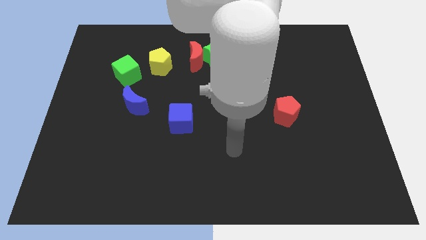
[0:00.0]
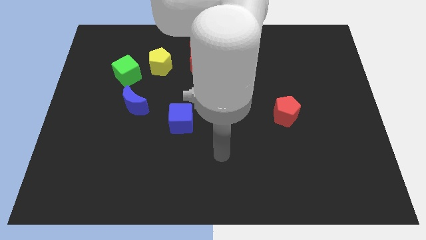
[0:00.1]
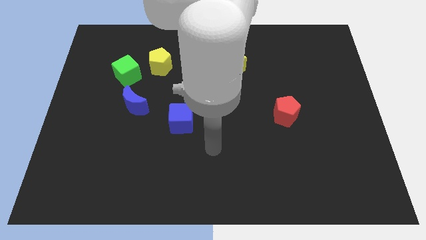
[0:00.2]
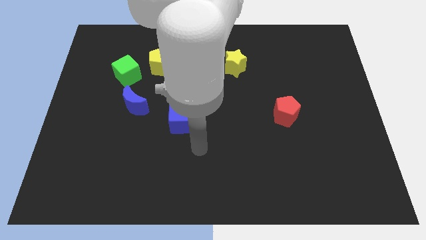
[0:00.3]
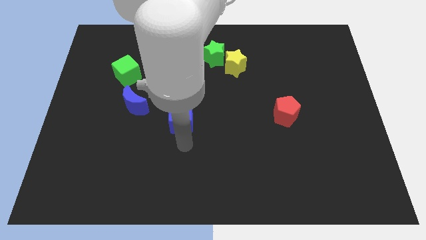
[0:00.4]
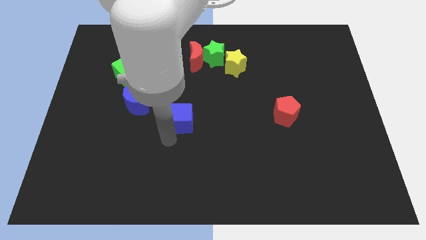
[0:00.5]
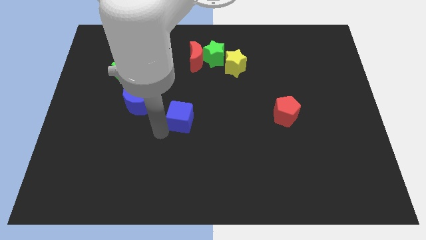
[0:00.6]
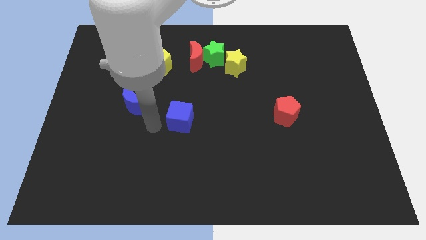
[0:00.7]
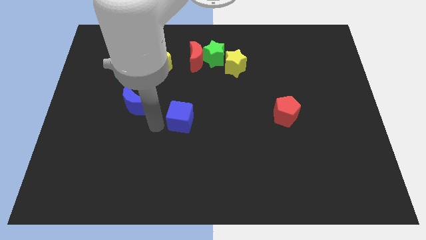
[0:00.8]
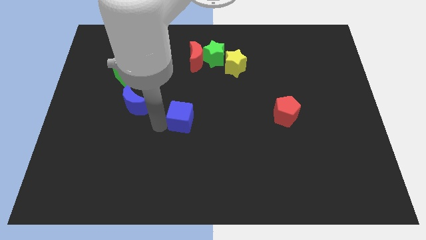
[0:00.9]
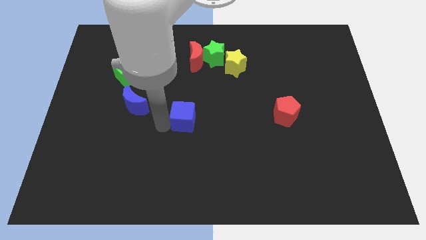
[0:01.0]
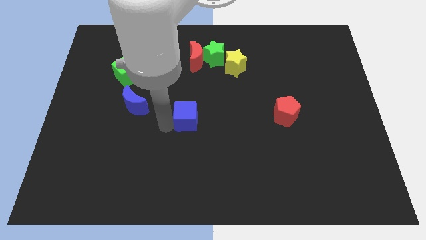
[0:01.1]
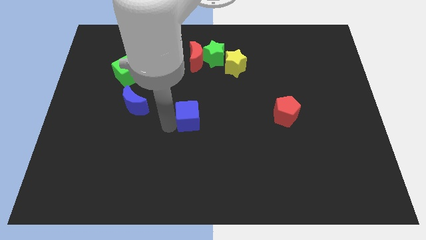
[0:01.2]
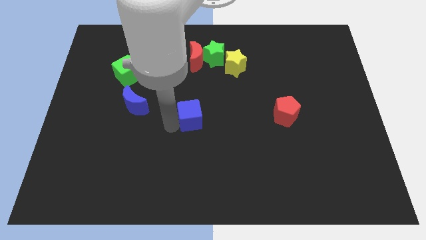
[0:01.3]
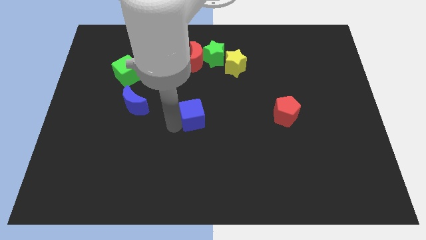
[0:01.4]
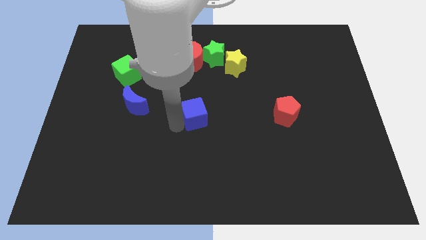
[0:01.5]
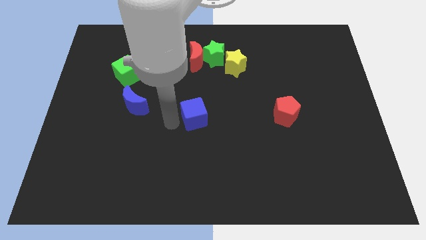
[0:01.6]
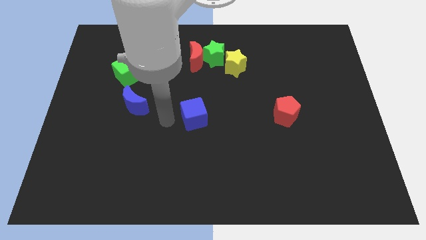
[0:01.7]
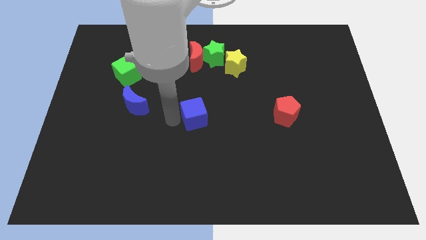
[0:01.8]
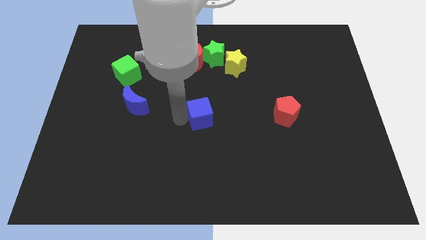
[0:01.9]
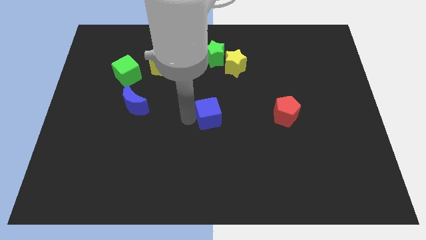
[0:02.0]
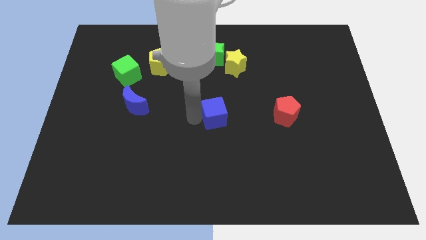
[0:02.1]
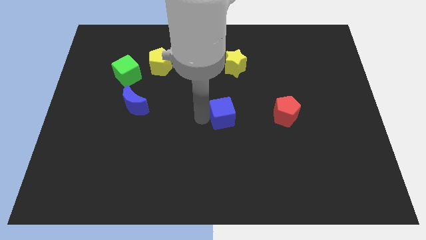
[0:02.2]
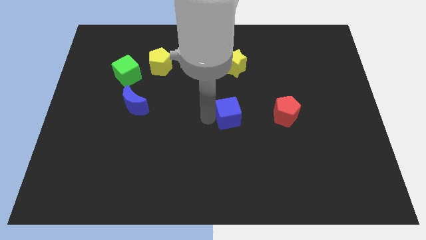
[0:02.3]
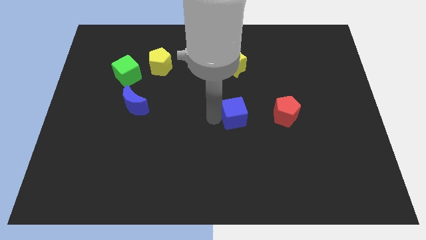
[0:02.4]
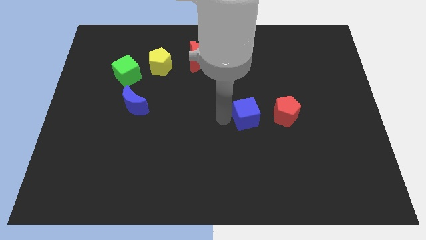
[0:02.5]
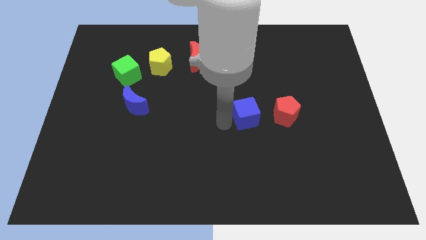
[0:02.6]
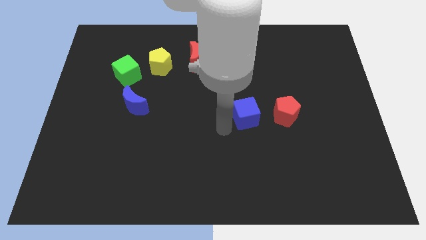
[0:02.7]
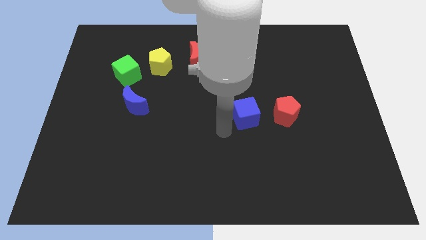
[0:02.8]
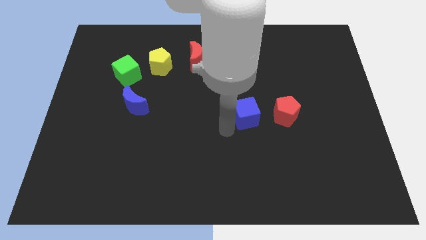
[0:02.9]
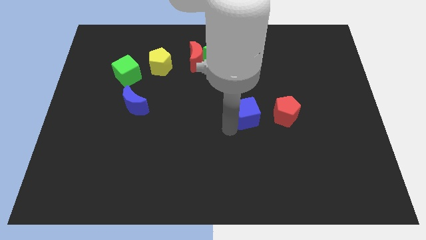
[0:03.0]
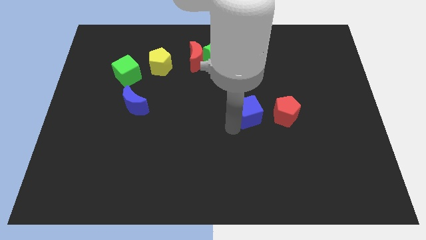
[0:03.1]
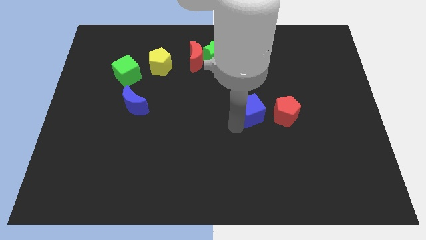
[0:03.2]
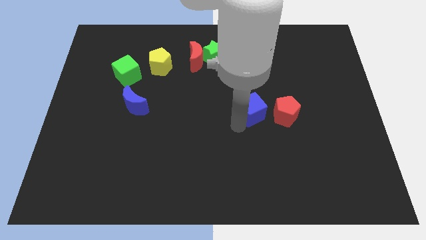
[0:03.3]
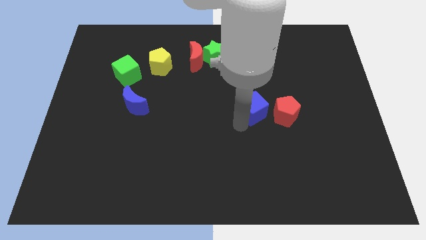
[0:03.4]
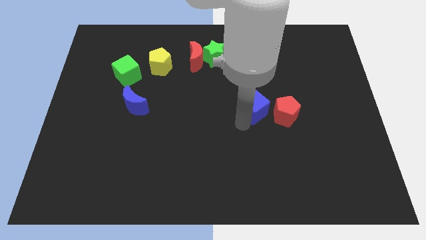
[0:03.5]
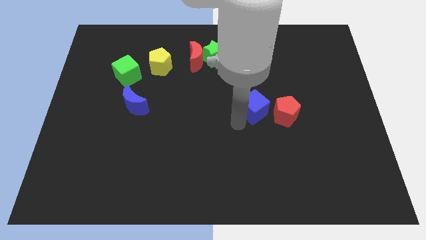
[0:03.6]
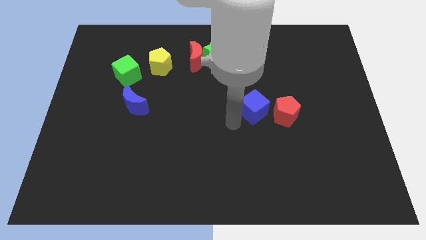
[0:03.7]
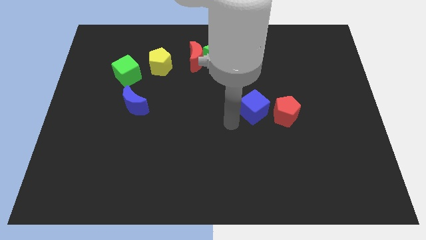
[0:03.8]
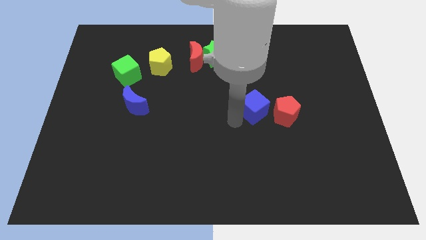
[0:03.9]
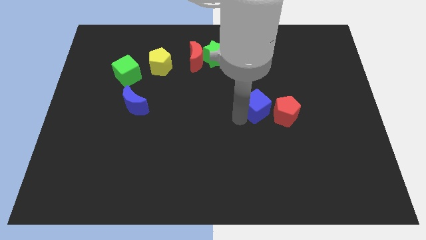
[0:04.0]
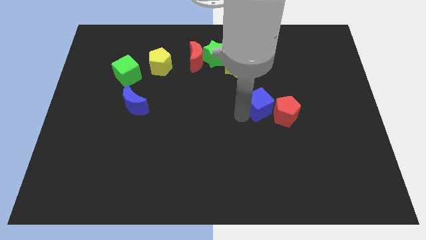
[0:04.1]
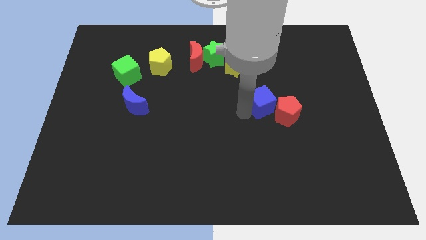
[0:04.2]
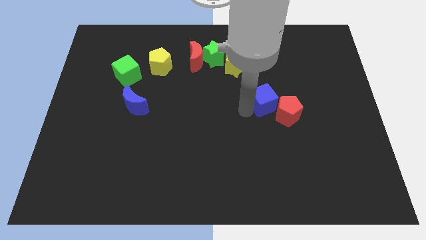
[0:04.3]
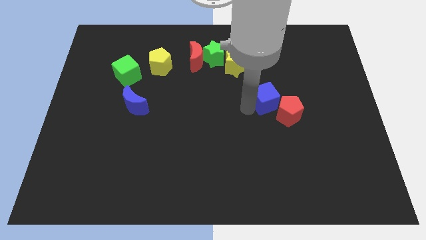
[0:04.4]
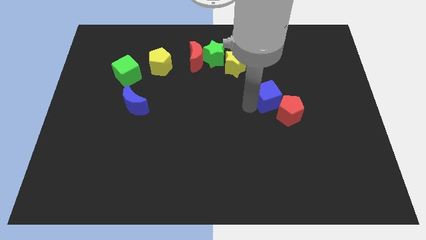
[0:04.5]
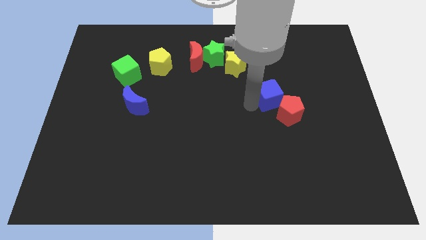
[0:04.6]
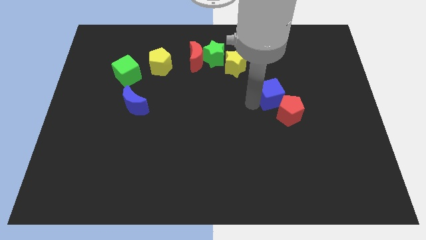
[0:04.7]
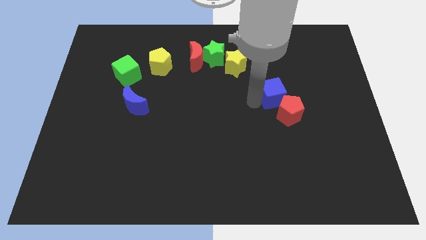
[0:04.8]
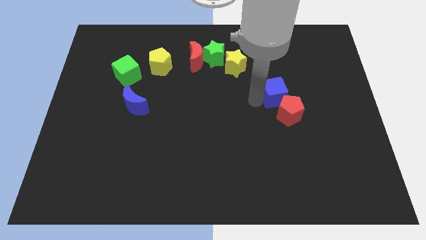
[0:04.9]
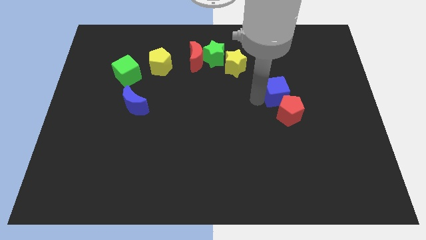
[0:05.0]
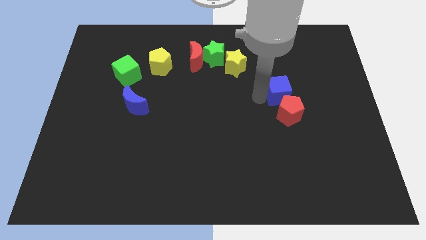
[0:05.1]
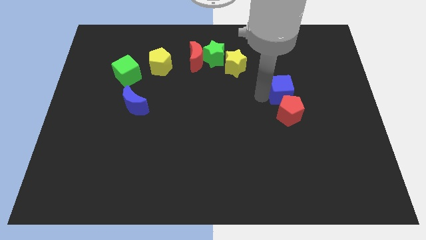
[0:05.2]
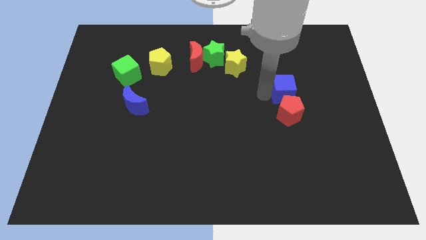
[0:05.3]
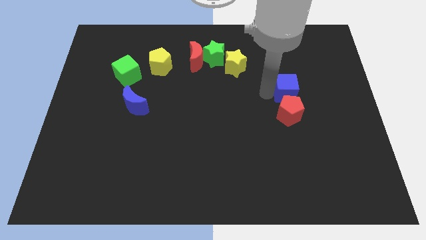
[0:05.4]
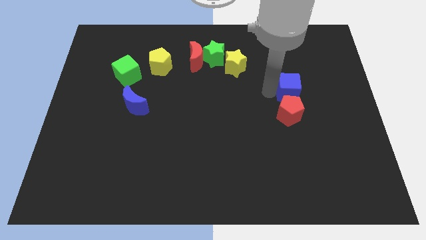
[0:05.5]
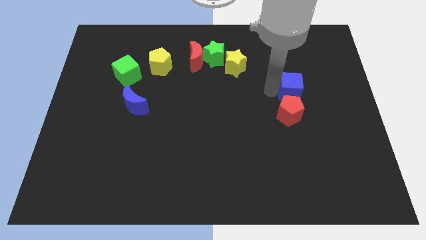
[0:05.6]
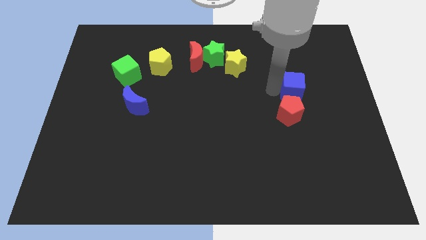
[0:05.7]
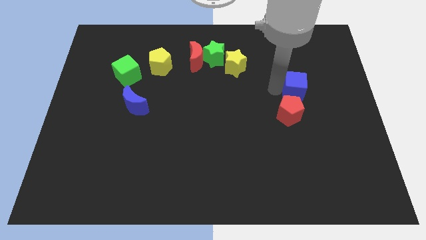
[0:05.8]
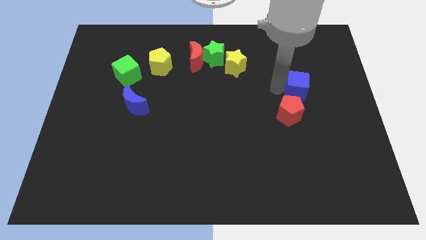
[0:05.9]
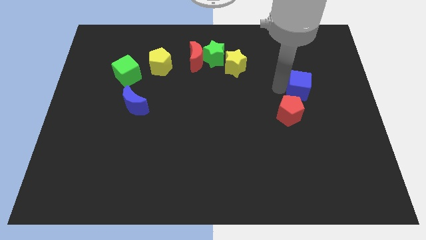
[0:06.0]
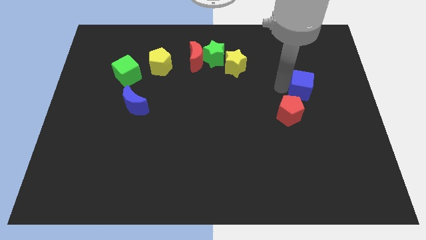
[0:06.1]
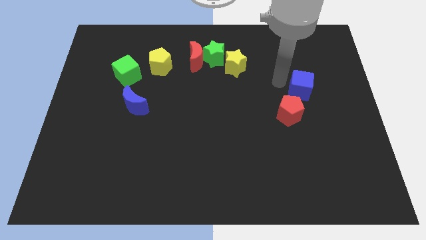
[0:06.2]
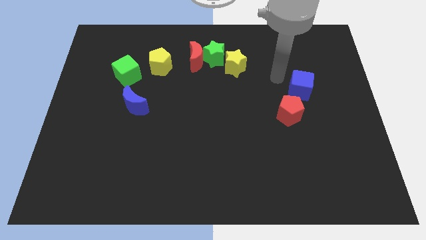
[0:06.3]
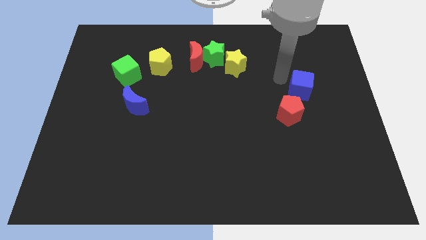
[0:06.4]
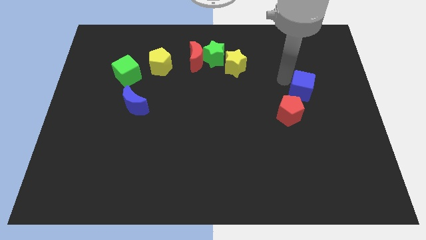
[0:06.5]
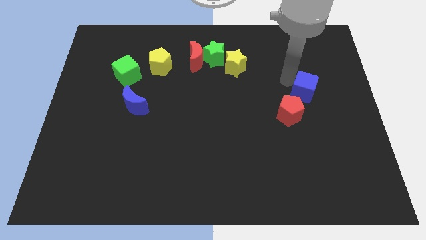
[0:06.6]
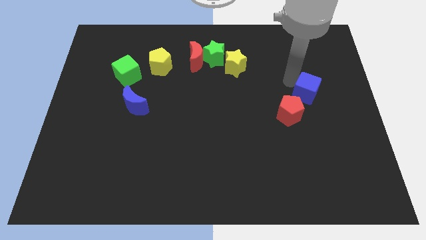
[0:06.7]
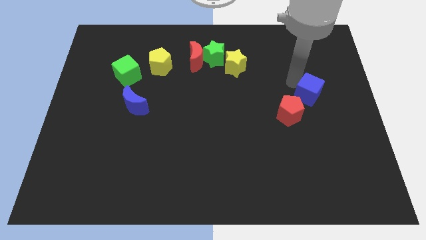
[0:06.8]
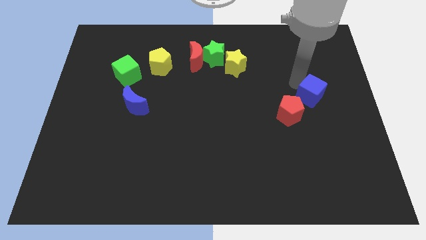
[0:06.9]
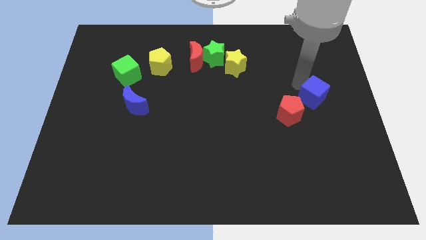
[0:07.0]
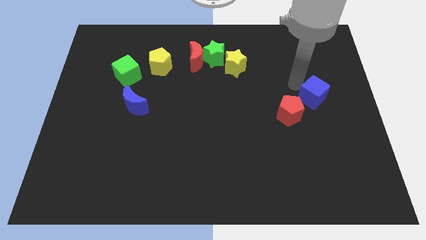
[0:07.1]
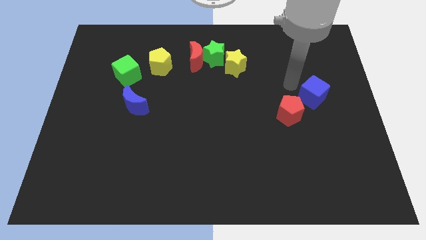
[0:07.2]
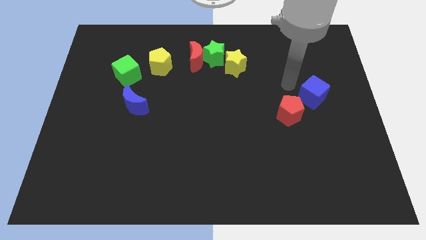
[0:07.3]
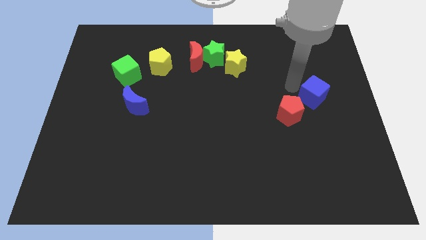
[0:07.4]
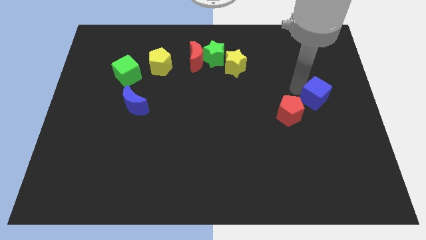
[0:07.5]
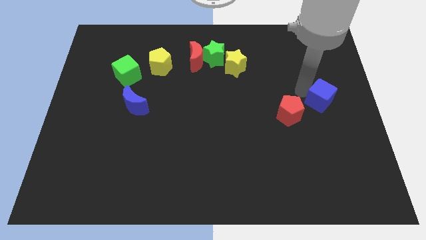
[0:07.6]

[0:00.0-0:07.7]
push the blue cube to the center right
